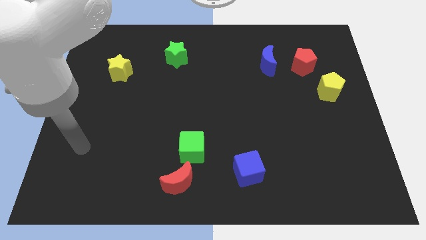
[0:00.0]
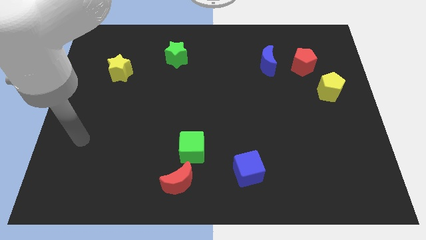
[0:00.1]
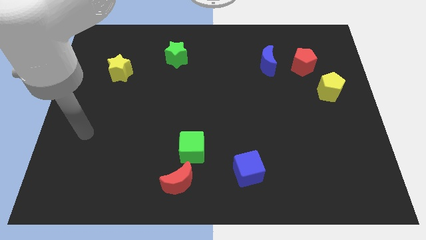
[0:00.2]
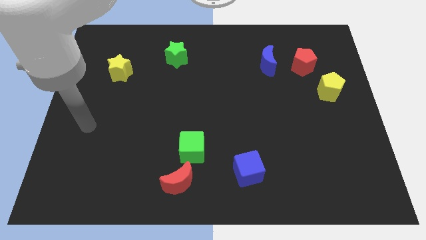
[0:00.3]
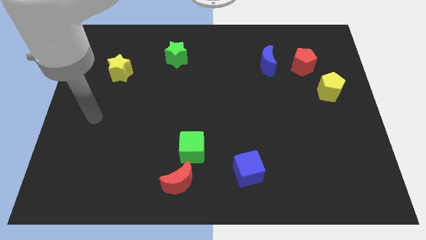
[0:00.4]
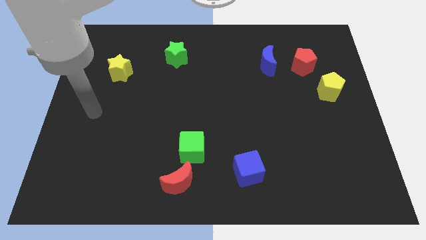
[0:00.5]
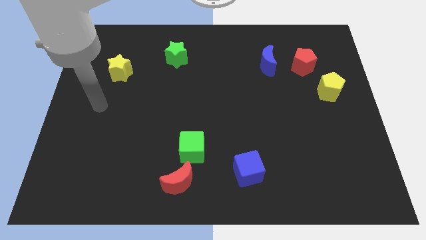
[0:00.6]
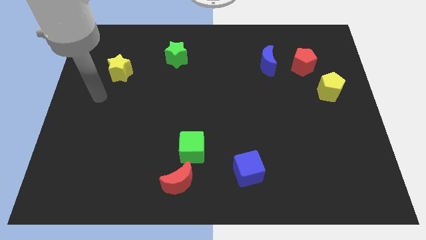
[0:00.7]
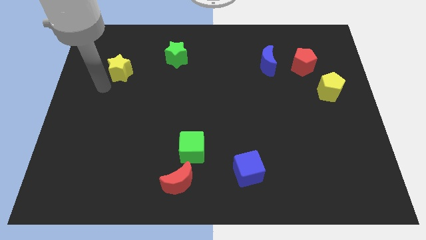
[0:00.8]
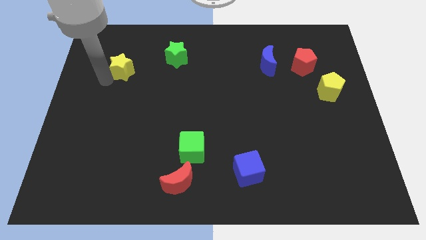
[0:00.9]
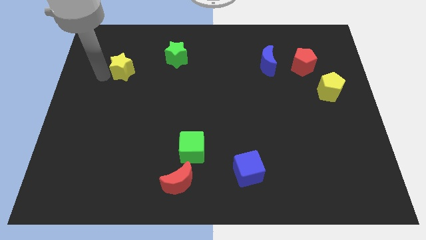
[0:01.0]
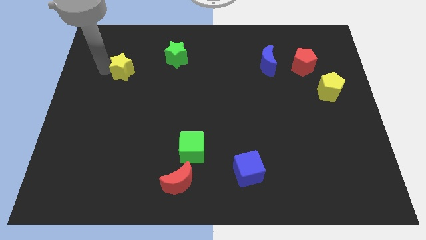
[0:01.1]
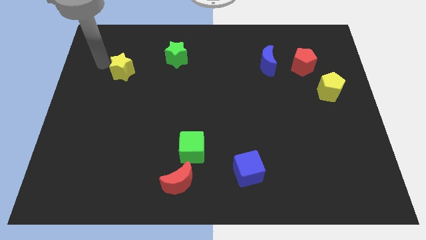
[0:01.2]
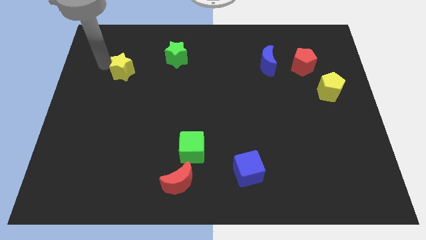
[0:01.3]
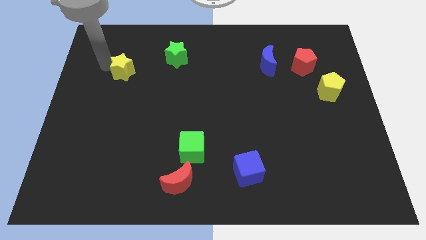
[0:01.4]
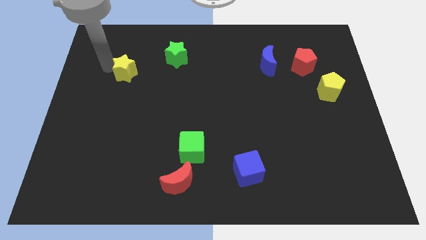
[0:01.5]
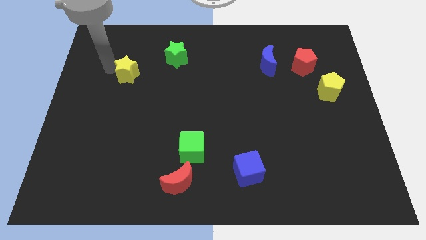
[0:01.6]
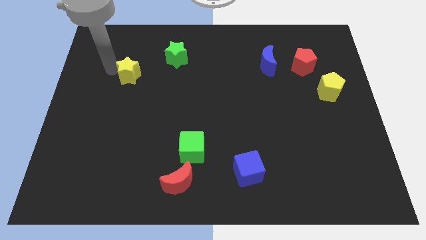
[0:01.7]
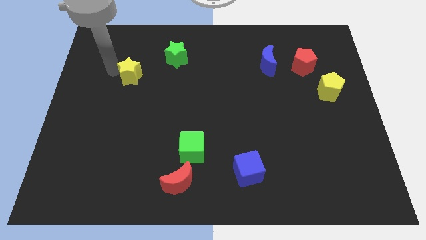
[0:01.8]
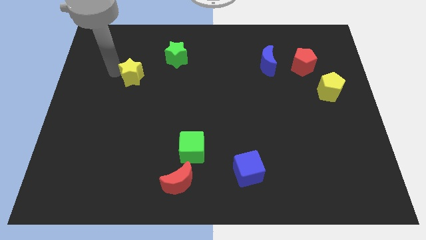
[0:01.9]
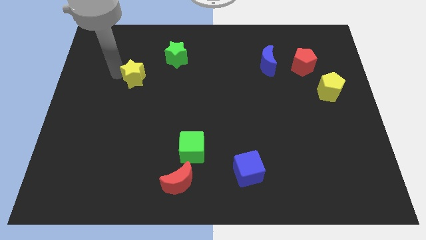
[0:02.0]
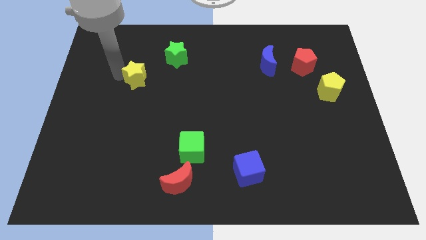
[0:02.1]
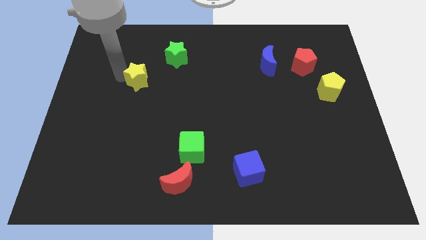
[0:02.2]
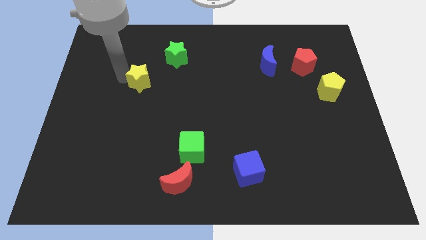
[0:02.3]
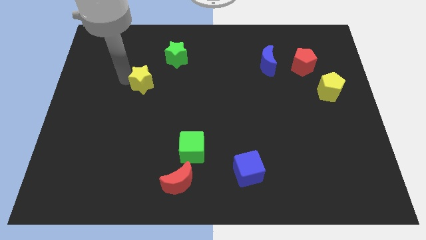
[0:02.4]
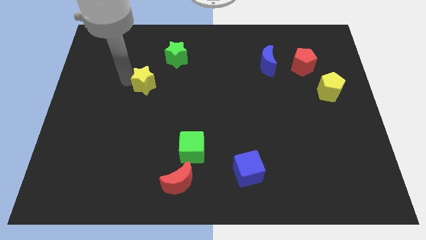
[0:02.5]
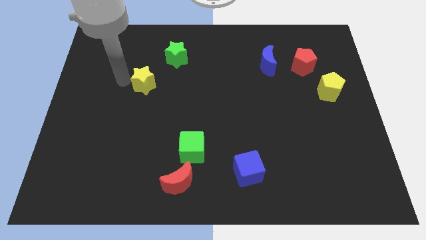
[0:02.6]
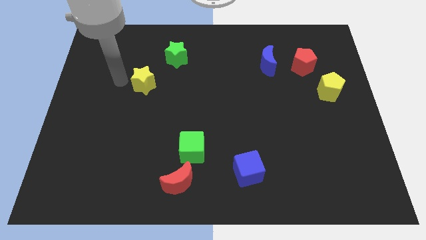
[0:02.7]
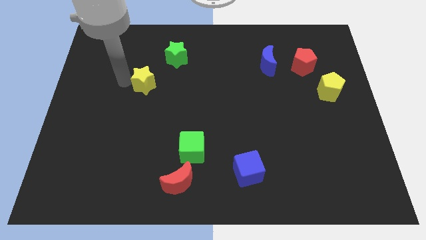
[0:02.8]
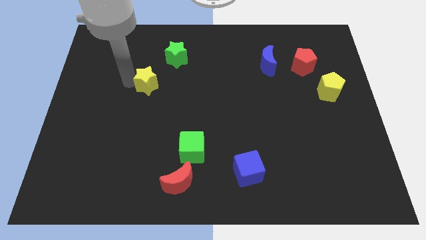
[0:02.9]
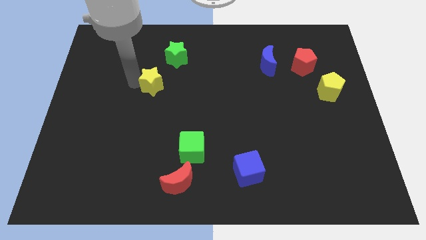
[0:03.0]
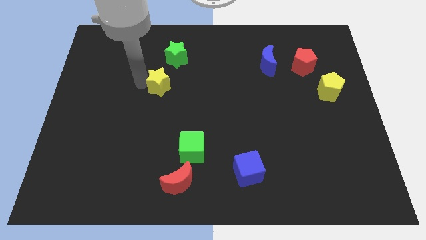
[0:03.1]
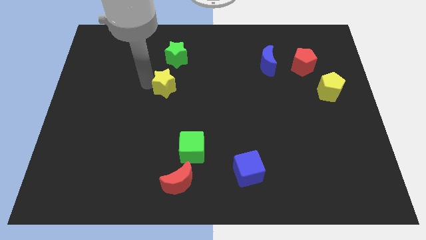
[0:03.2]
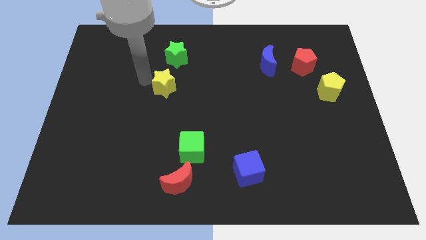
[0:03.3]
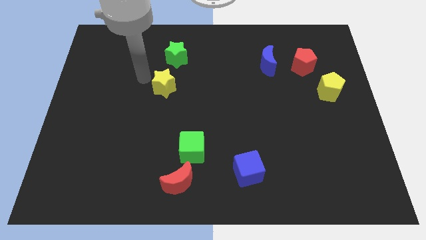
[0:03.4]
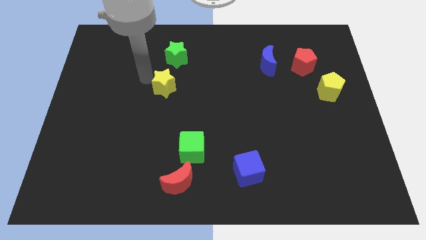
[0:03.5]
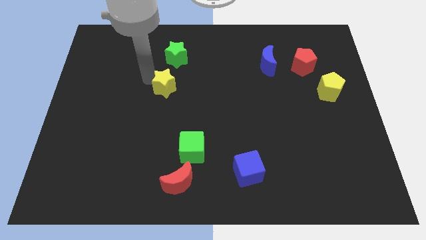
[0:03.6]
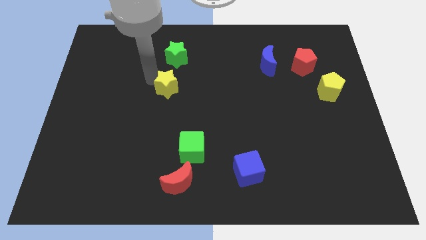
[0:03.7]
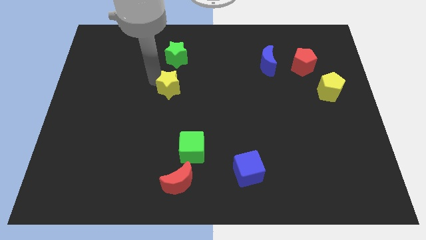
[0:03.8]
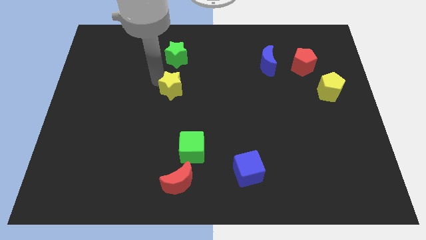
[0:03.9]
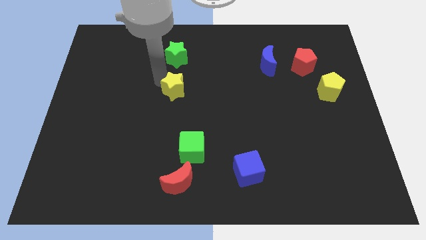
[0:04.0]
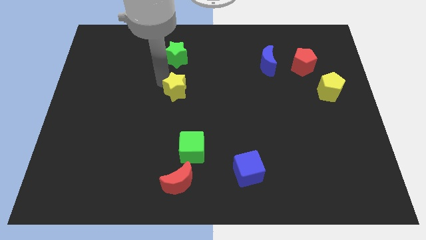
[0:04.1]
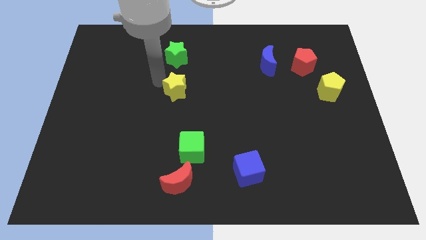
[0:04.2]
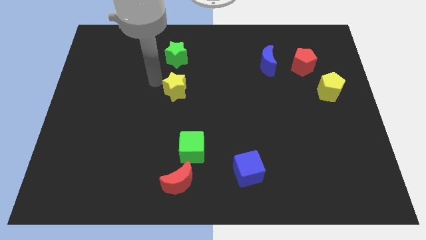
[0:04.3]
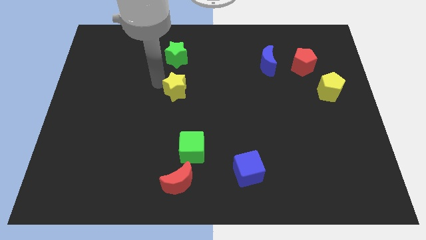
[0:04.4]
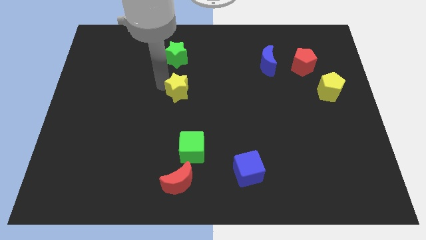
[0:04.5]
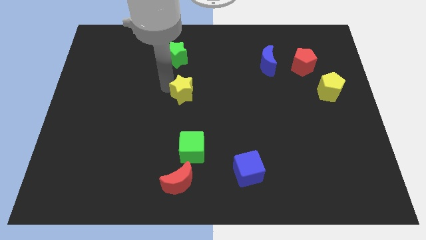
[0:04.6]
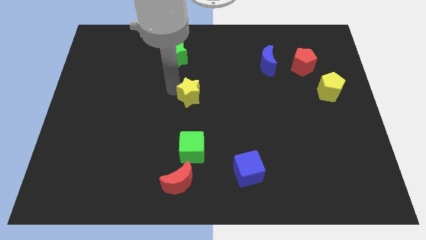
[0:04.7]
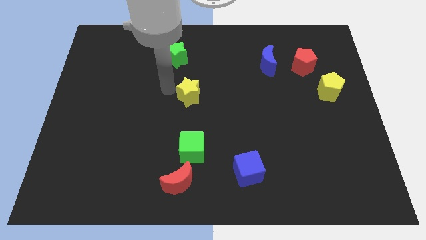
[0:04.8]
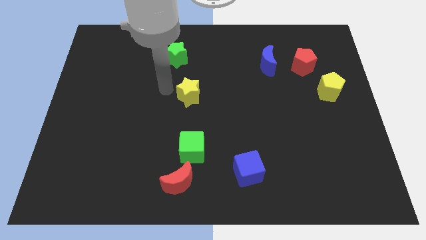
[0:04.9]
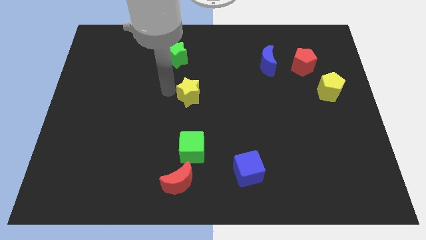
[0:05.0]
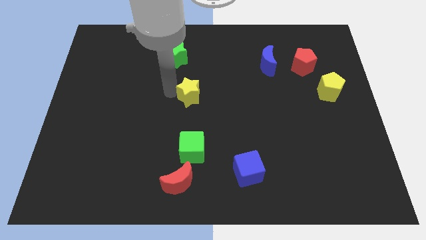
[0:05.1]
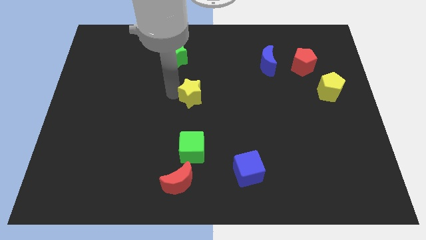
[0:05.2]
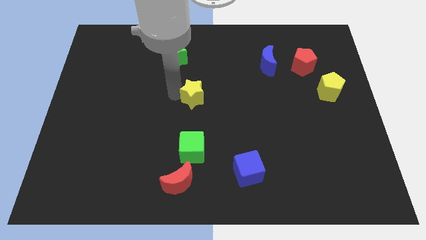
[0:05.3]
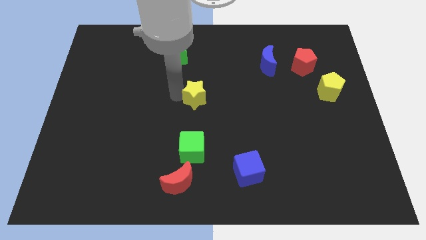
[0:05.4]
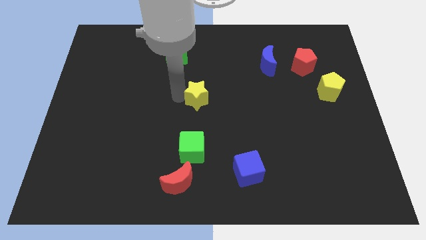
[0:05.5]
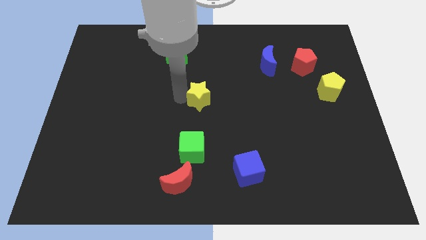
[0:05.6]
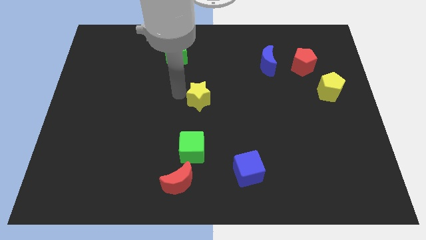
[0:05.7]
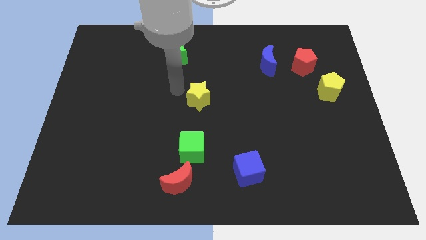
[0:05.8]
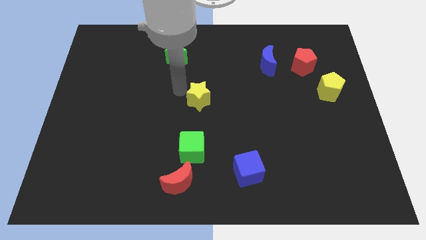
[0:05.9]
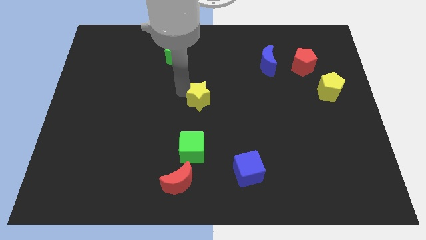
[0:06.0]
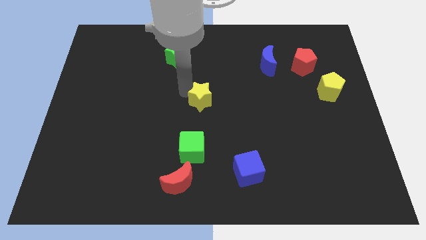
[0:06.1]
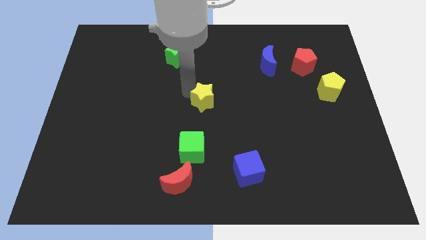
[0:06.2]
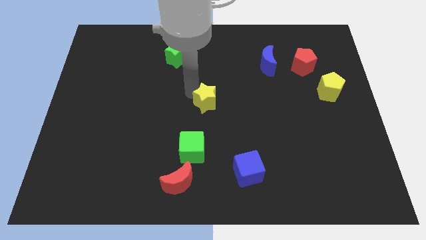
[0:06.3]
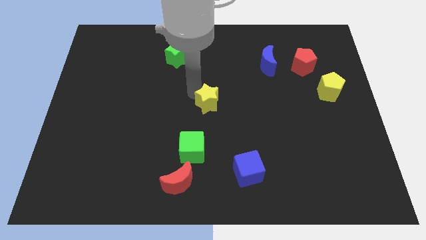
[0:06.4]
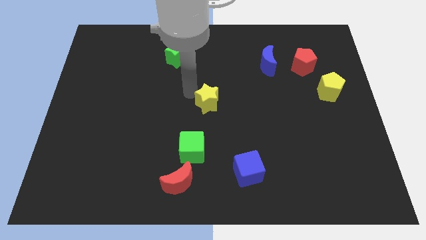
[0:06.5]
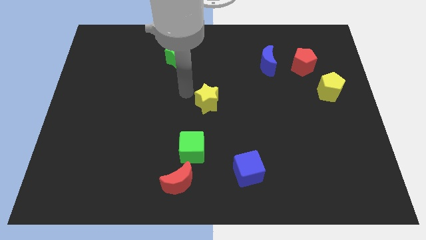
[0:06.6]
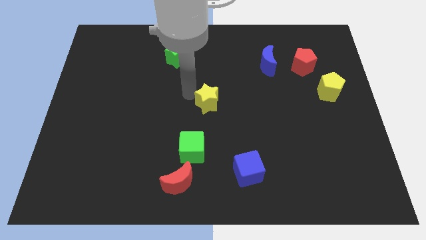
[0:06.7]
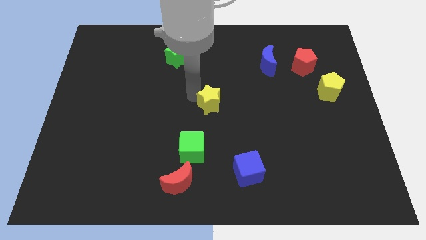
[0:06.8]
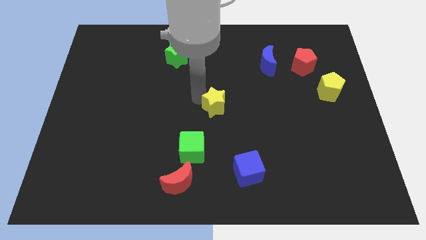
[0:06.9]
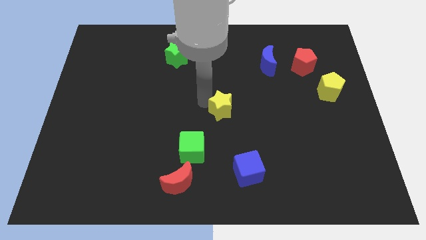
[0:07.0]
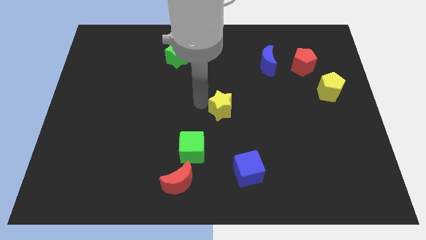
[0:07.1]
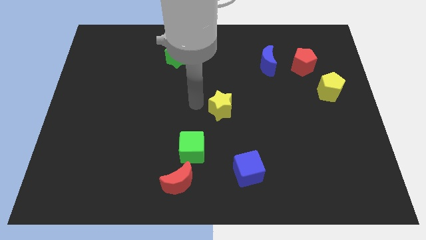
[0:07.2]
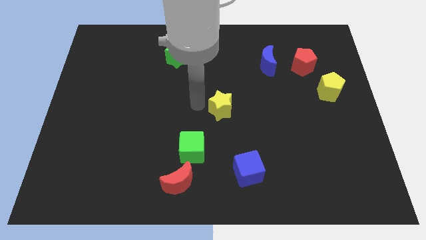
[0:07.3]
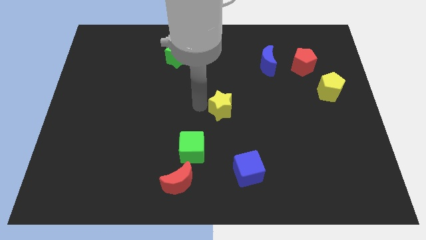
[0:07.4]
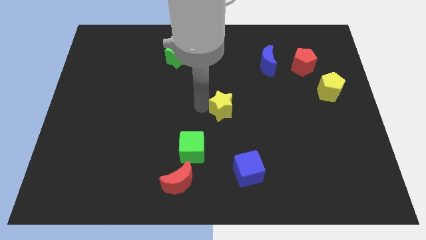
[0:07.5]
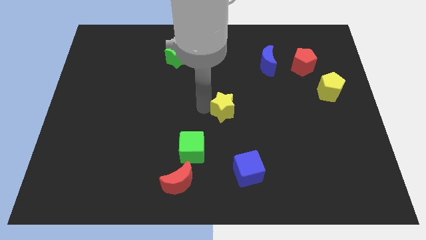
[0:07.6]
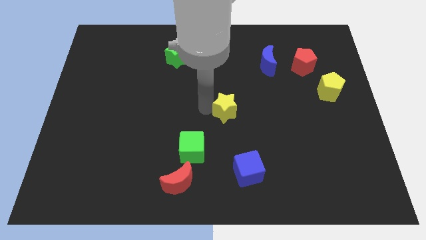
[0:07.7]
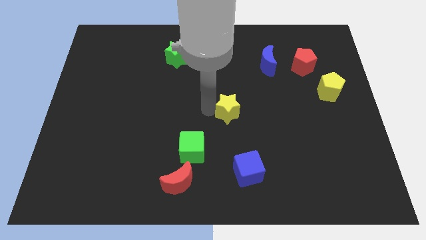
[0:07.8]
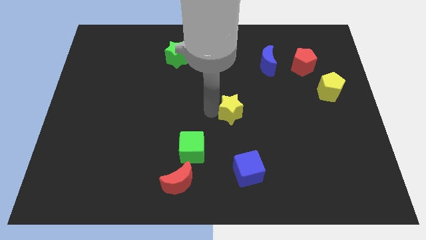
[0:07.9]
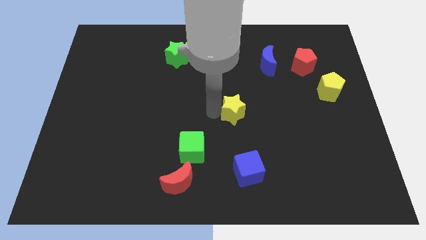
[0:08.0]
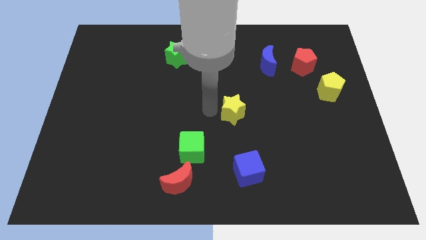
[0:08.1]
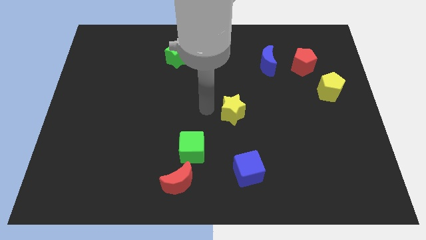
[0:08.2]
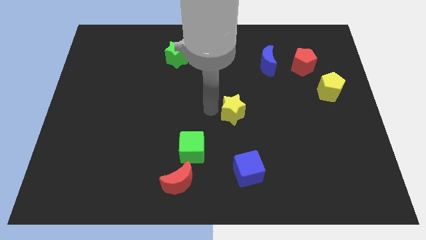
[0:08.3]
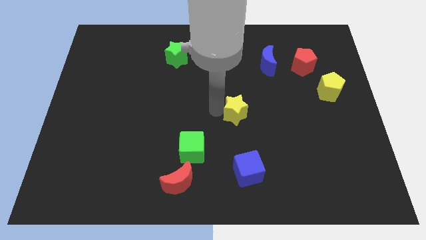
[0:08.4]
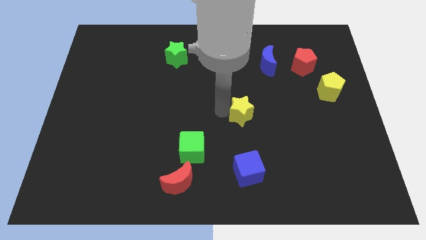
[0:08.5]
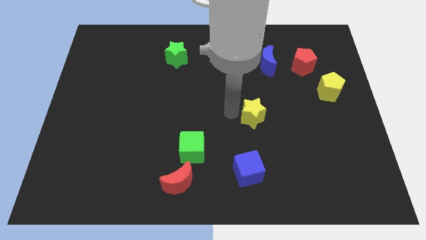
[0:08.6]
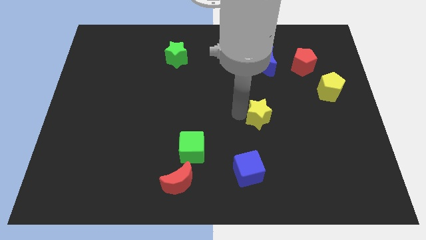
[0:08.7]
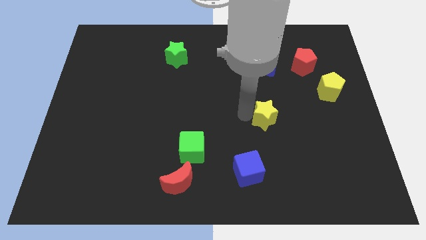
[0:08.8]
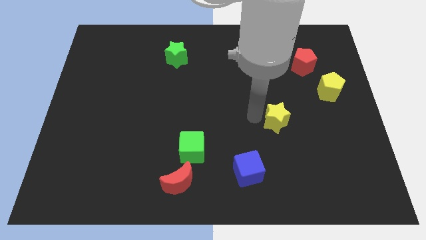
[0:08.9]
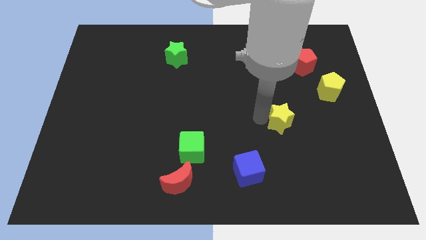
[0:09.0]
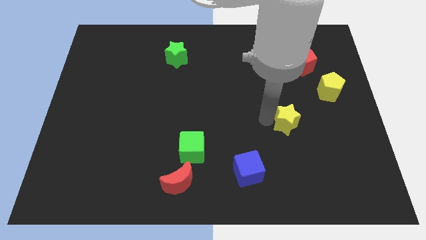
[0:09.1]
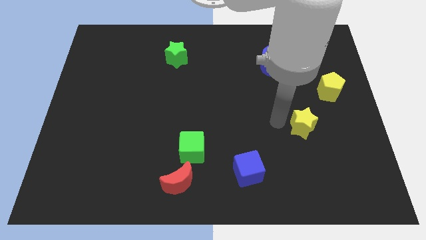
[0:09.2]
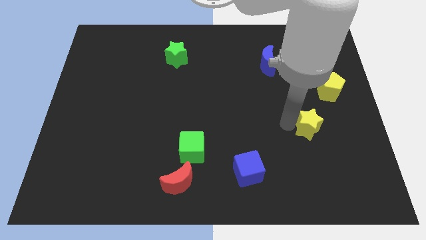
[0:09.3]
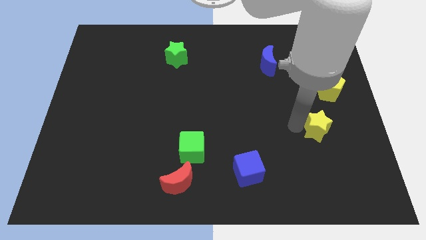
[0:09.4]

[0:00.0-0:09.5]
slide the yellow star to the bottom side of the yellow pentagon
